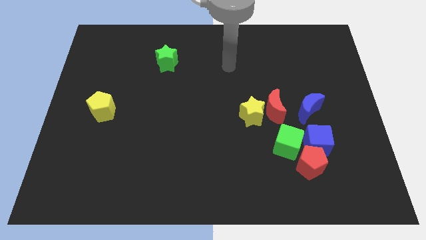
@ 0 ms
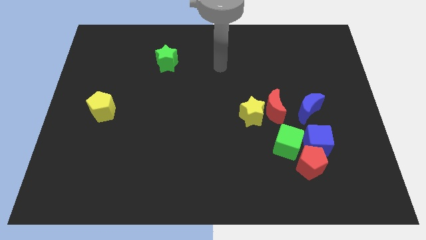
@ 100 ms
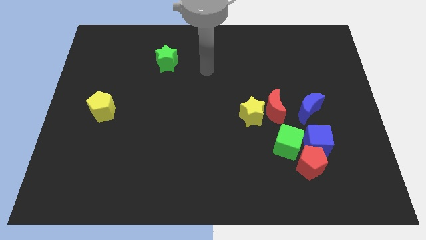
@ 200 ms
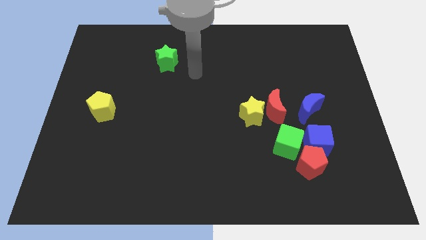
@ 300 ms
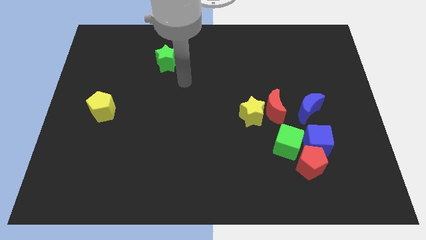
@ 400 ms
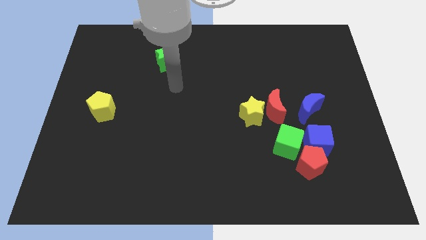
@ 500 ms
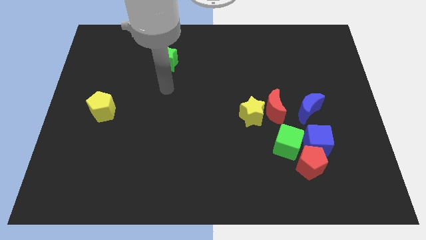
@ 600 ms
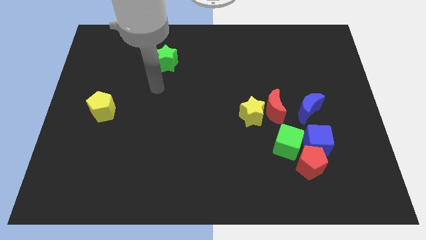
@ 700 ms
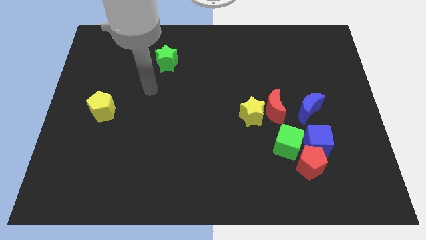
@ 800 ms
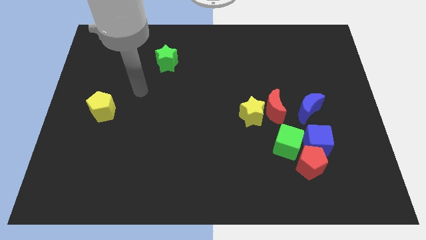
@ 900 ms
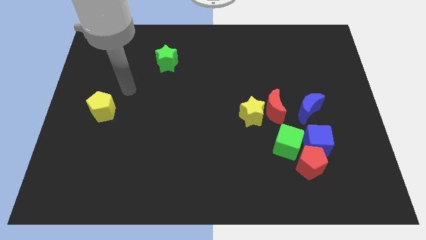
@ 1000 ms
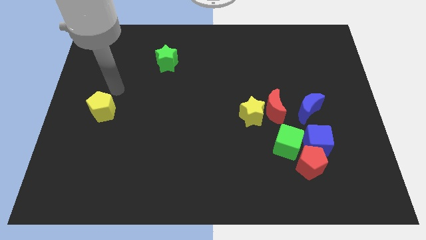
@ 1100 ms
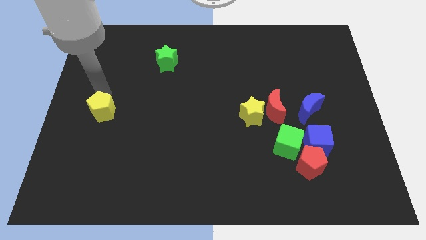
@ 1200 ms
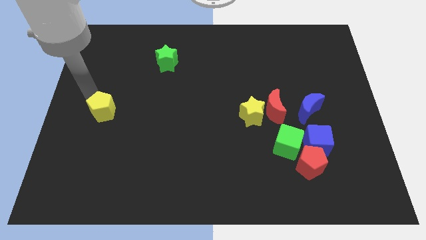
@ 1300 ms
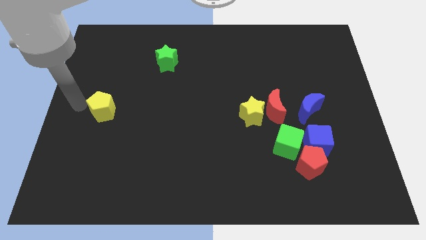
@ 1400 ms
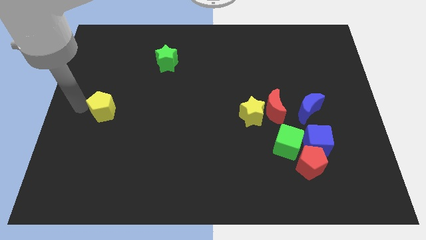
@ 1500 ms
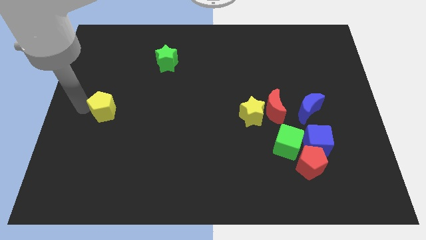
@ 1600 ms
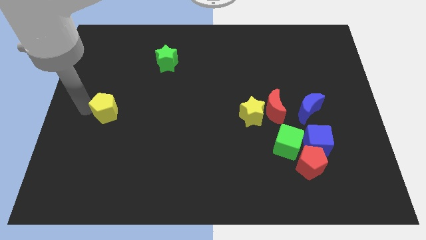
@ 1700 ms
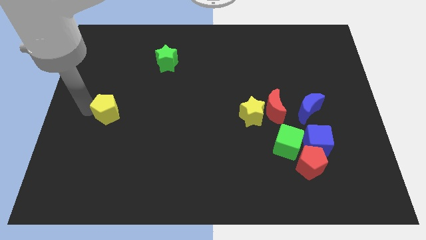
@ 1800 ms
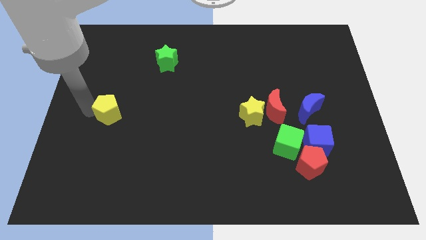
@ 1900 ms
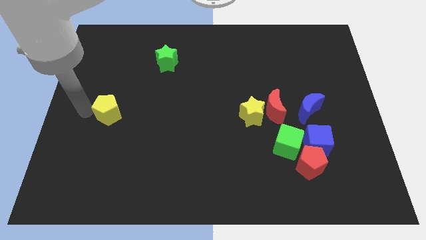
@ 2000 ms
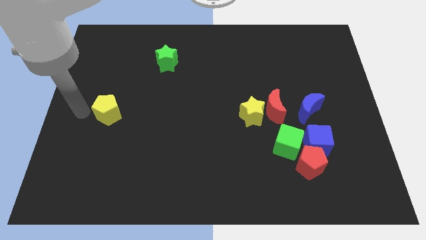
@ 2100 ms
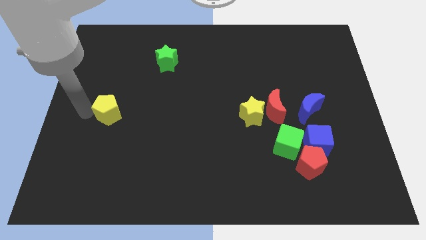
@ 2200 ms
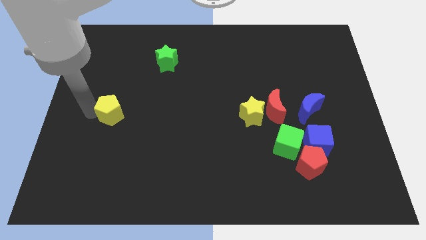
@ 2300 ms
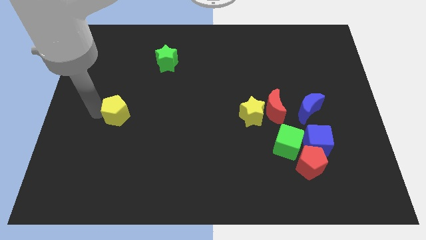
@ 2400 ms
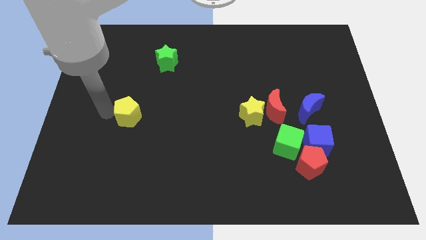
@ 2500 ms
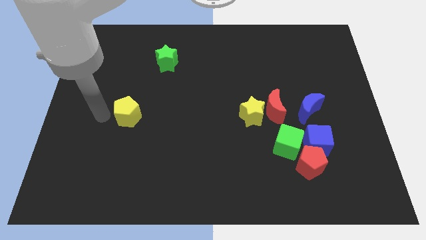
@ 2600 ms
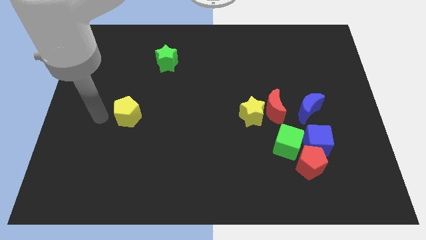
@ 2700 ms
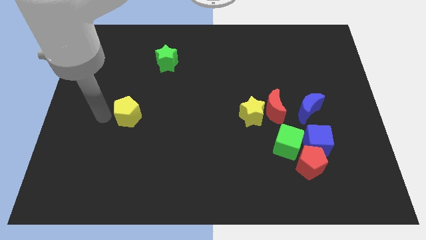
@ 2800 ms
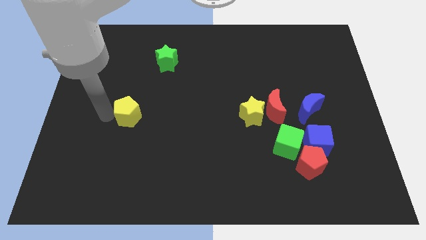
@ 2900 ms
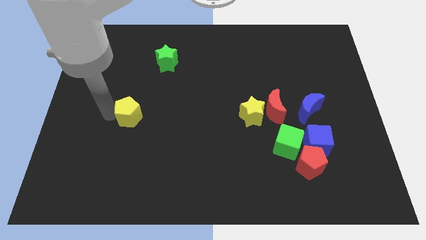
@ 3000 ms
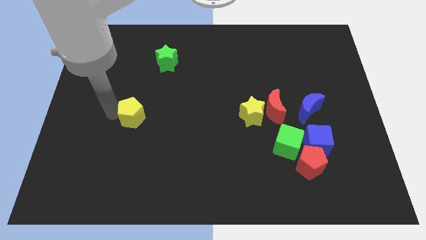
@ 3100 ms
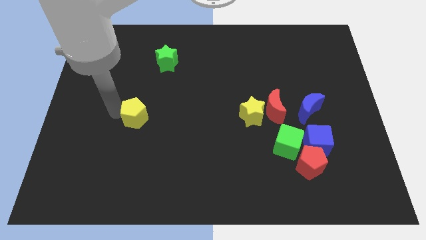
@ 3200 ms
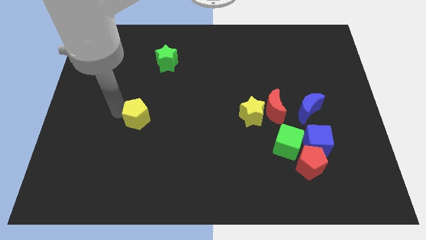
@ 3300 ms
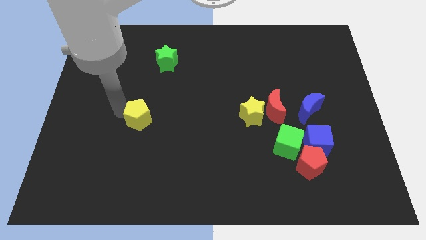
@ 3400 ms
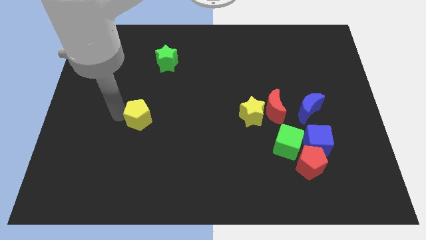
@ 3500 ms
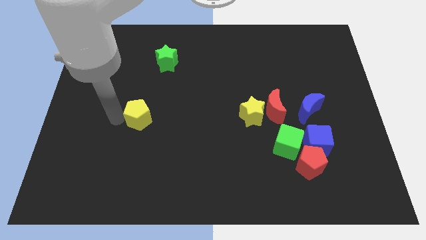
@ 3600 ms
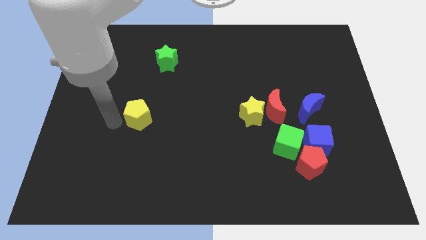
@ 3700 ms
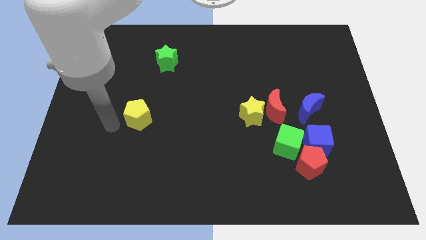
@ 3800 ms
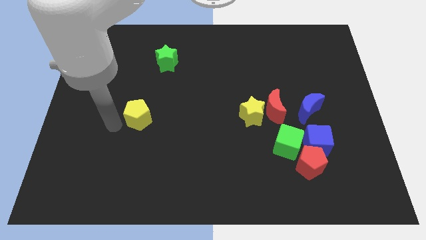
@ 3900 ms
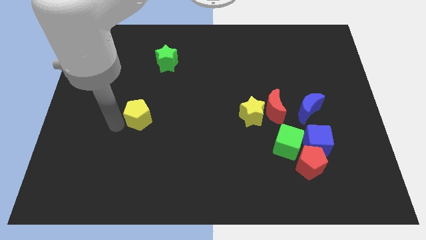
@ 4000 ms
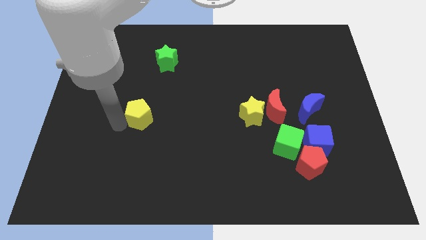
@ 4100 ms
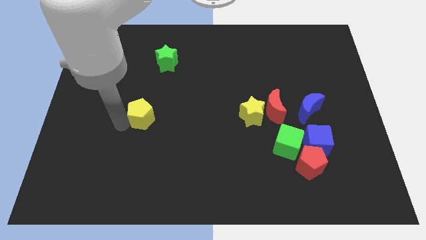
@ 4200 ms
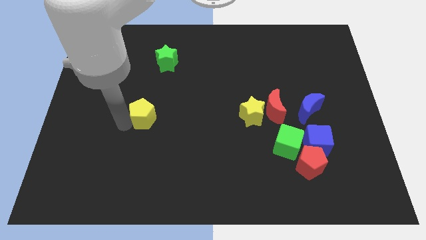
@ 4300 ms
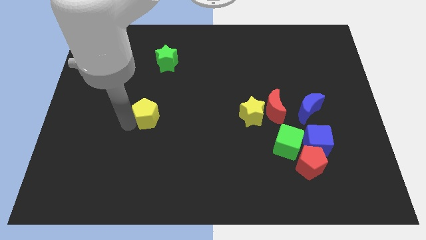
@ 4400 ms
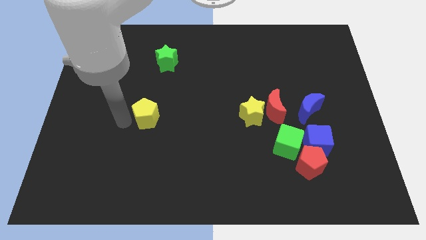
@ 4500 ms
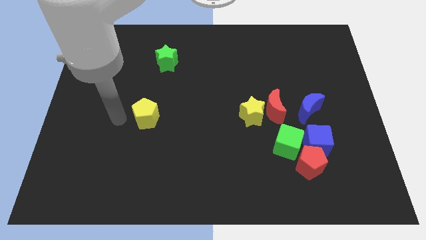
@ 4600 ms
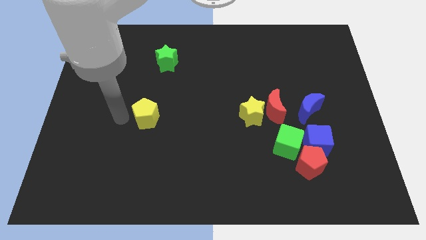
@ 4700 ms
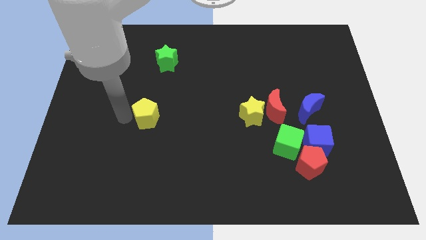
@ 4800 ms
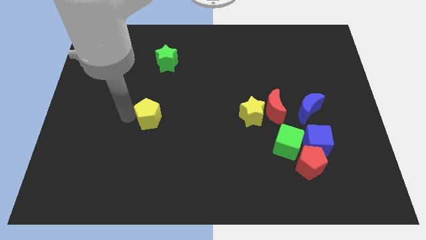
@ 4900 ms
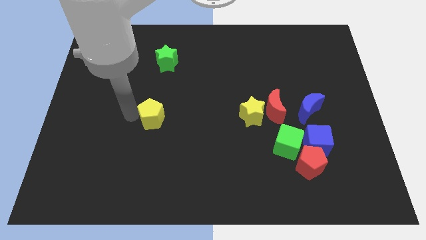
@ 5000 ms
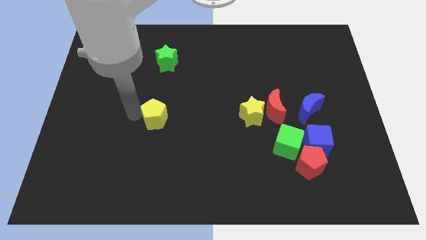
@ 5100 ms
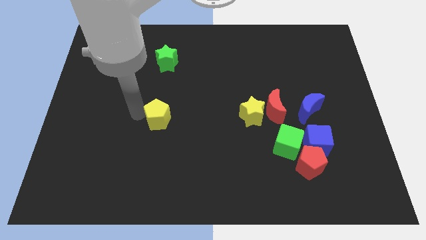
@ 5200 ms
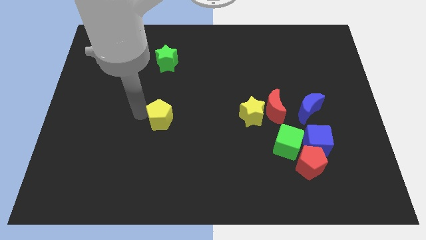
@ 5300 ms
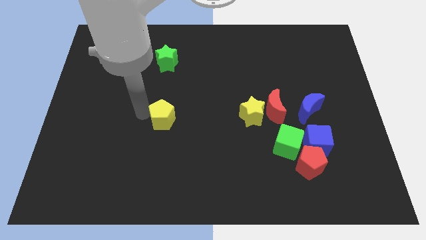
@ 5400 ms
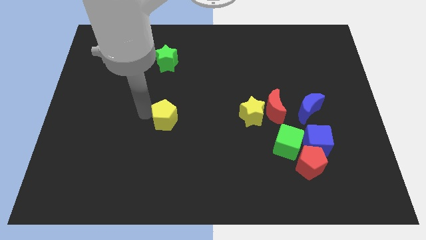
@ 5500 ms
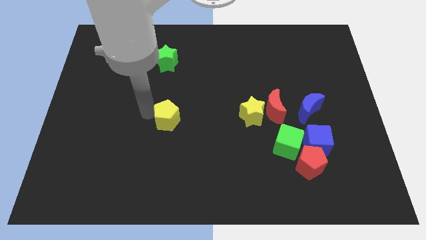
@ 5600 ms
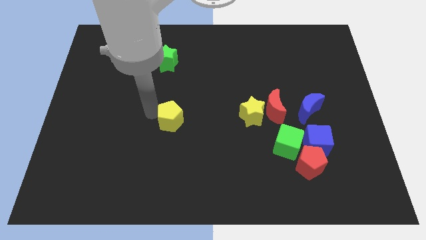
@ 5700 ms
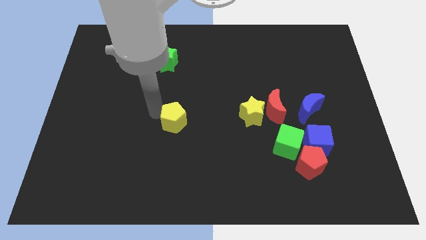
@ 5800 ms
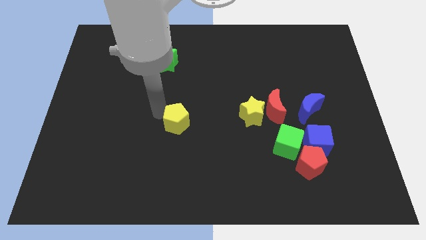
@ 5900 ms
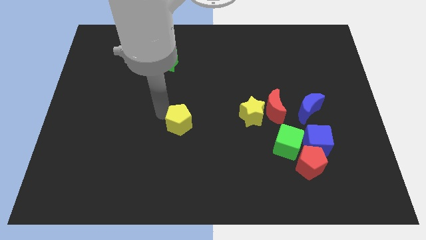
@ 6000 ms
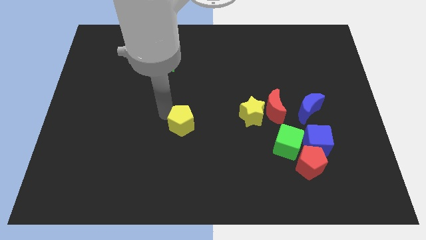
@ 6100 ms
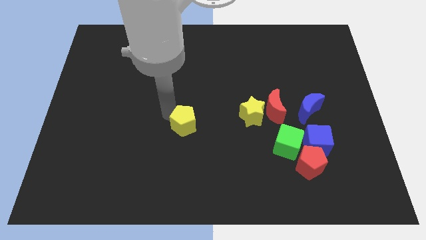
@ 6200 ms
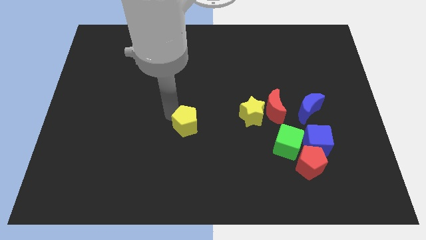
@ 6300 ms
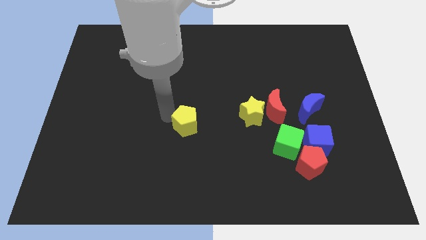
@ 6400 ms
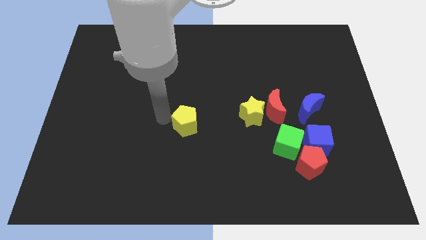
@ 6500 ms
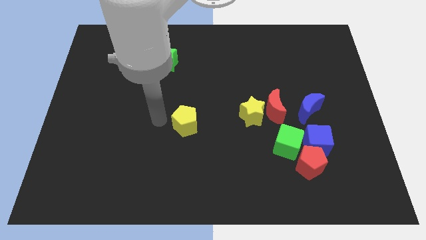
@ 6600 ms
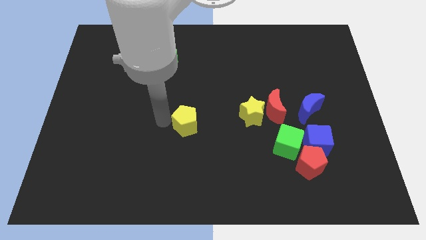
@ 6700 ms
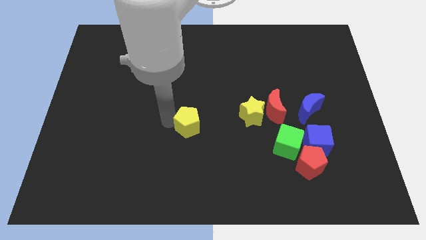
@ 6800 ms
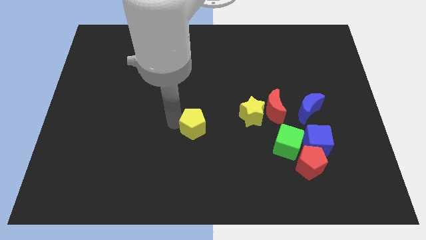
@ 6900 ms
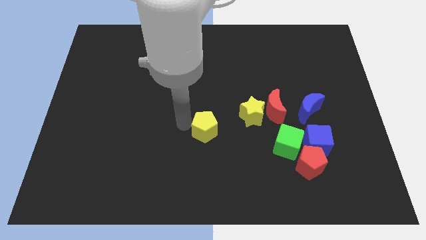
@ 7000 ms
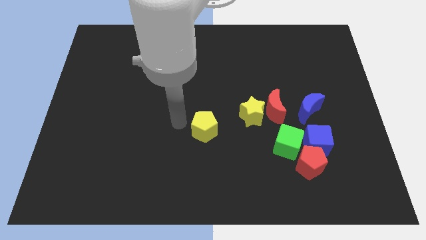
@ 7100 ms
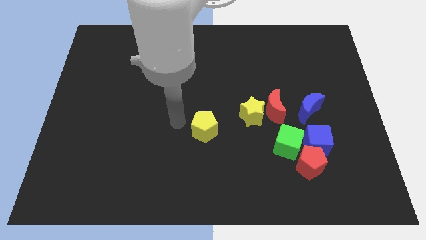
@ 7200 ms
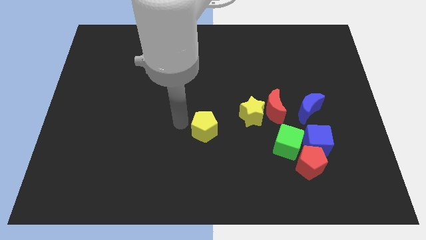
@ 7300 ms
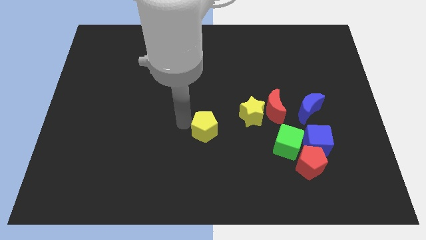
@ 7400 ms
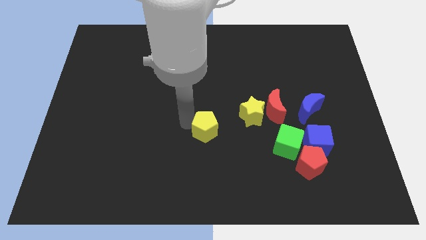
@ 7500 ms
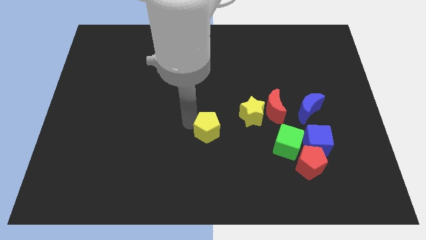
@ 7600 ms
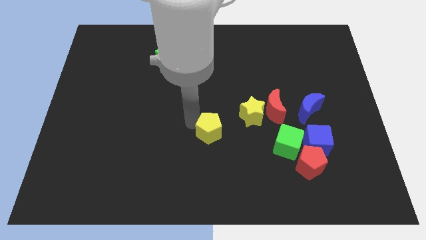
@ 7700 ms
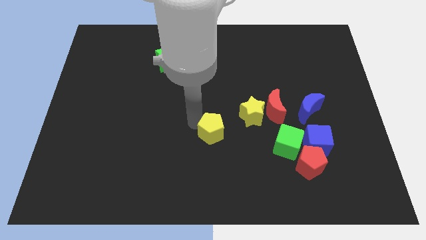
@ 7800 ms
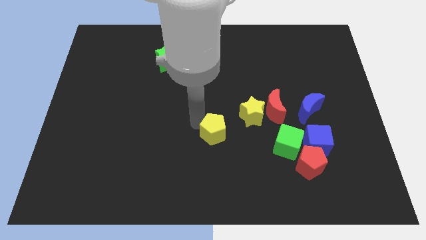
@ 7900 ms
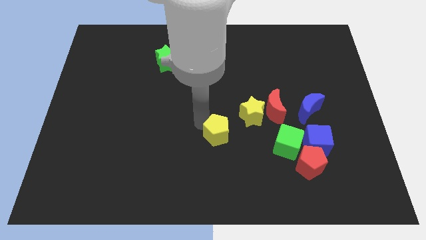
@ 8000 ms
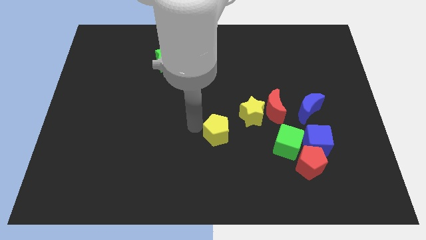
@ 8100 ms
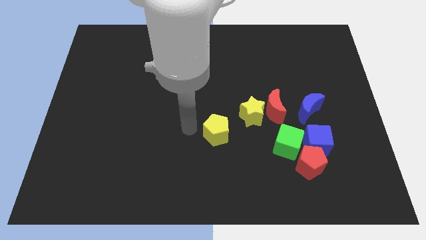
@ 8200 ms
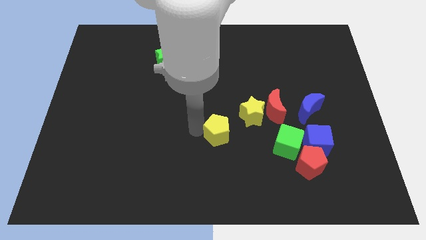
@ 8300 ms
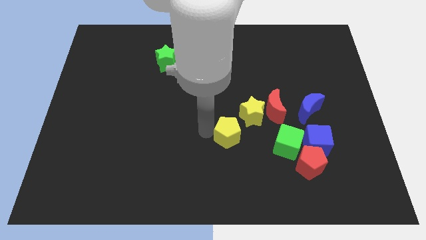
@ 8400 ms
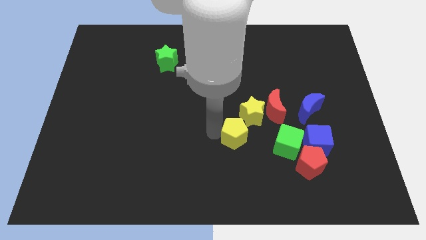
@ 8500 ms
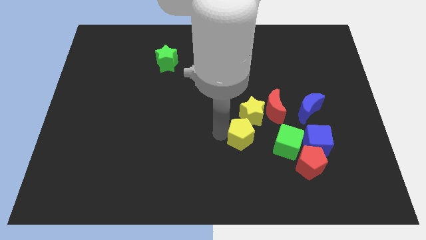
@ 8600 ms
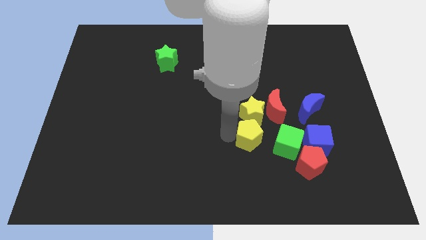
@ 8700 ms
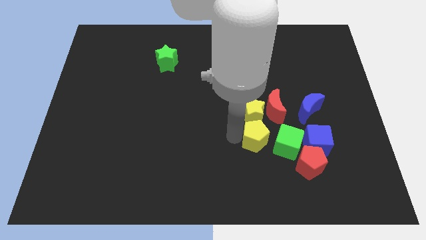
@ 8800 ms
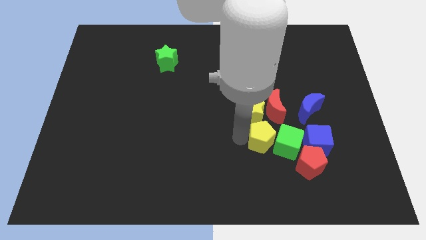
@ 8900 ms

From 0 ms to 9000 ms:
push the yellow pentagon to the top left side of the red pentagon
